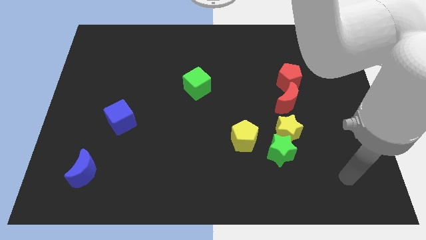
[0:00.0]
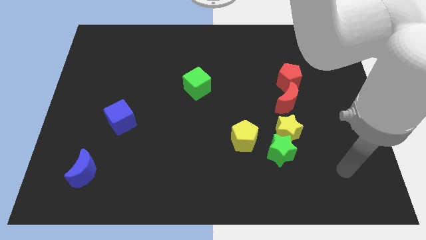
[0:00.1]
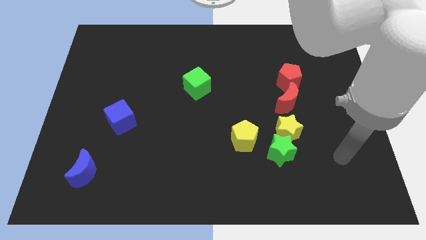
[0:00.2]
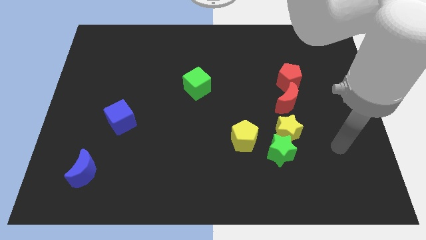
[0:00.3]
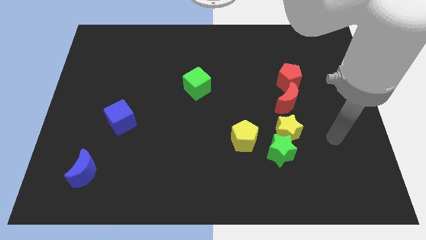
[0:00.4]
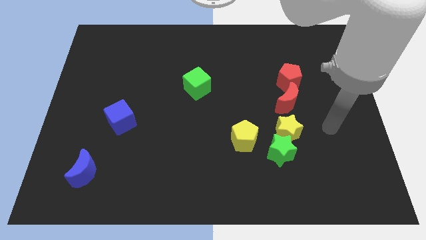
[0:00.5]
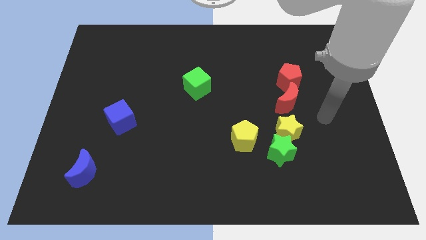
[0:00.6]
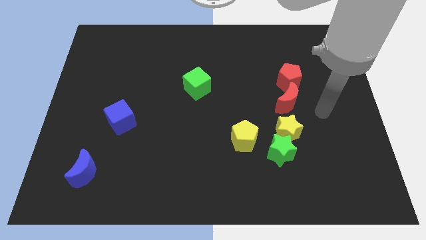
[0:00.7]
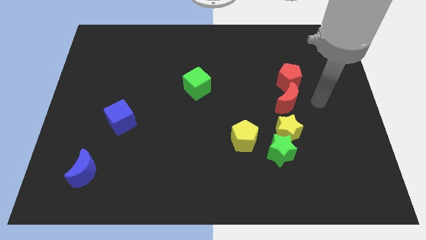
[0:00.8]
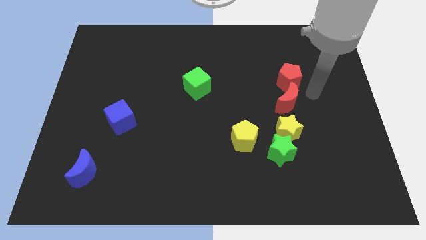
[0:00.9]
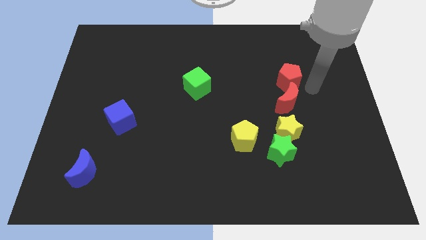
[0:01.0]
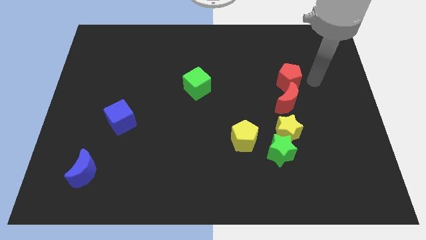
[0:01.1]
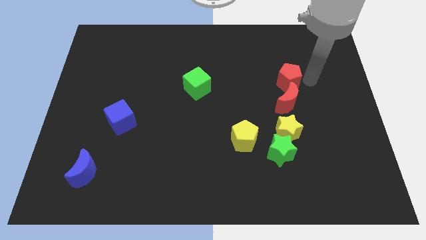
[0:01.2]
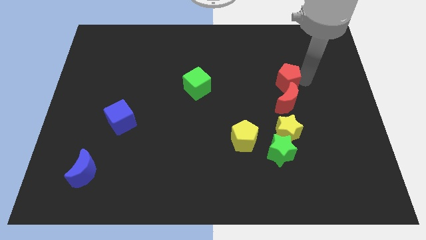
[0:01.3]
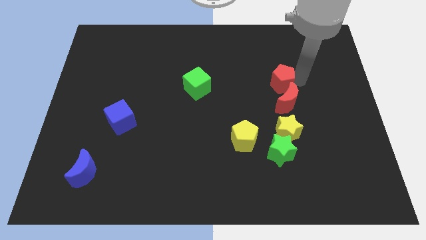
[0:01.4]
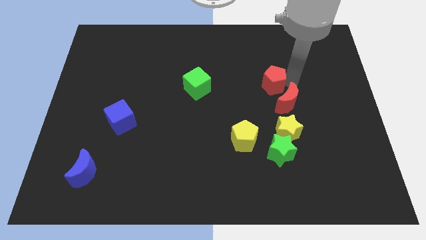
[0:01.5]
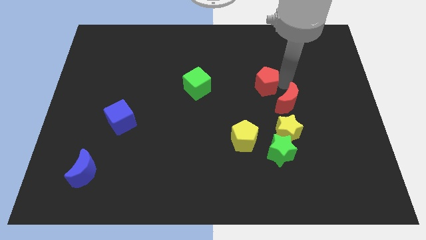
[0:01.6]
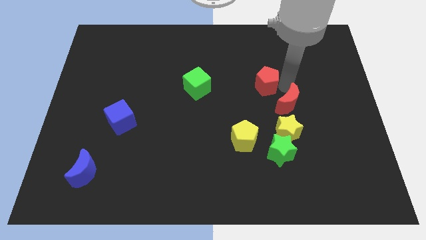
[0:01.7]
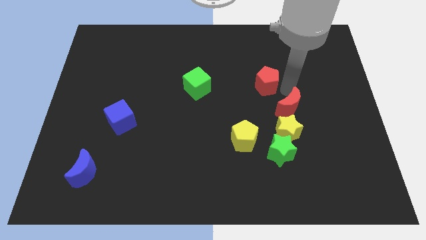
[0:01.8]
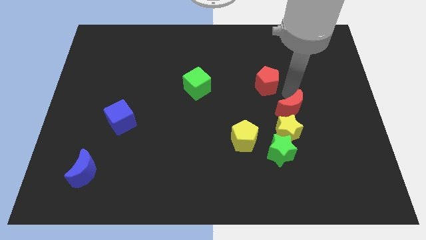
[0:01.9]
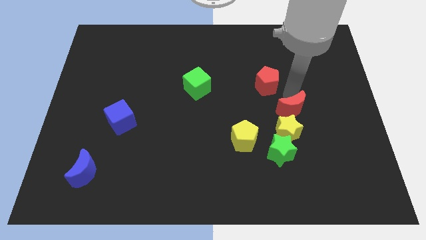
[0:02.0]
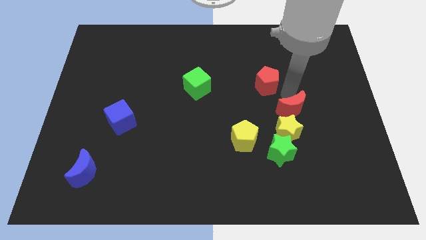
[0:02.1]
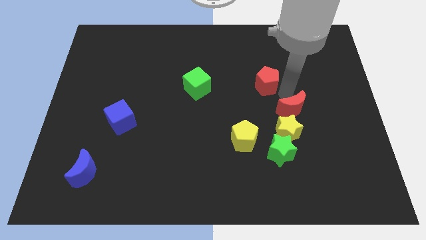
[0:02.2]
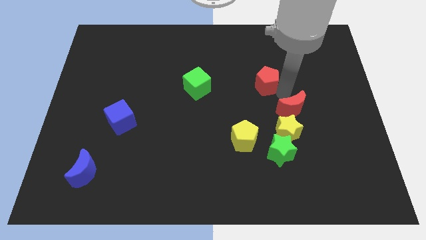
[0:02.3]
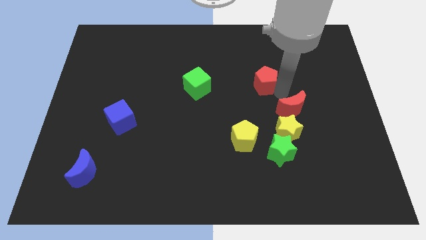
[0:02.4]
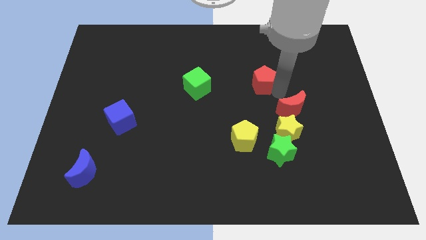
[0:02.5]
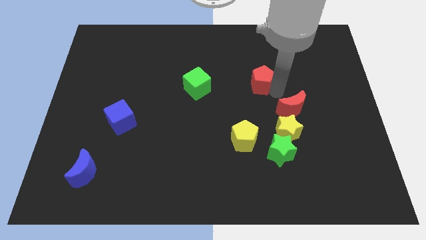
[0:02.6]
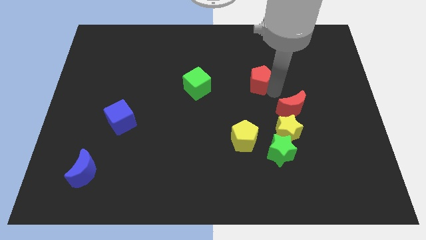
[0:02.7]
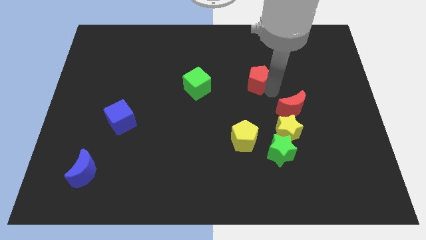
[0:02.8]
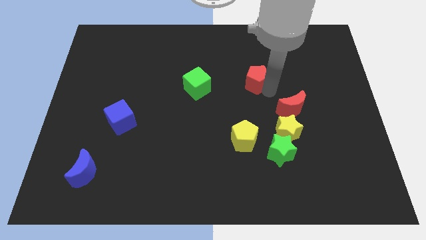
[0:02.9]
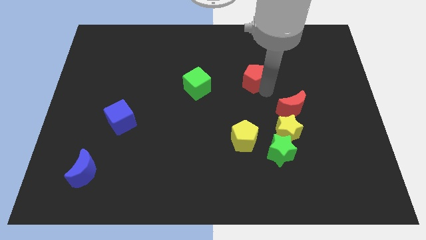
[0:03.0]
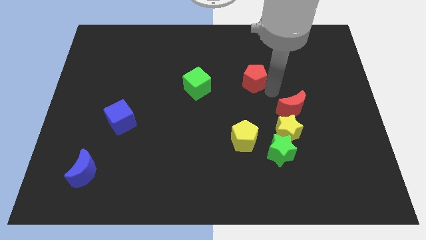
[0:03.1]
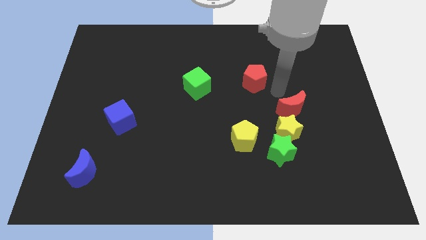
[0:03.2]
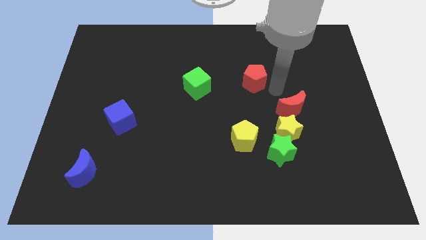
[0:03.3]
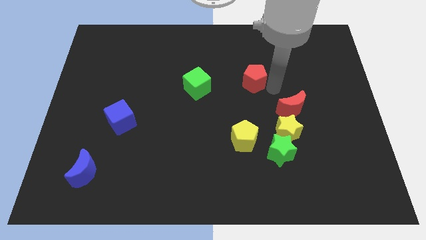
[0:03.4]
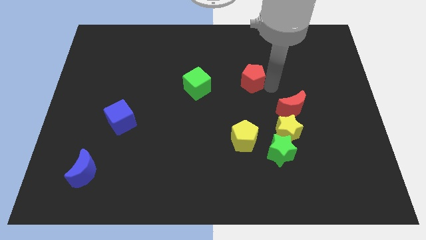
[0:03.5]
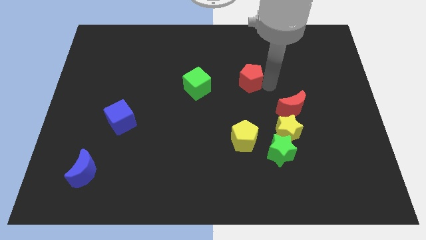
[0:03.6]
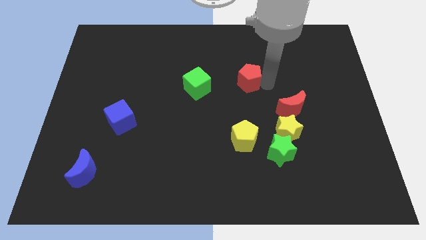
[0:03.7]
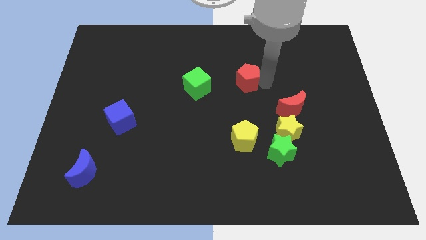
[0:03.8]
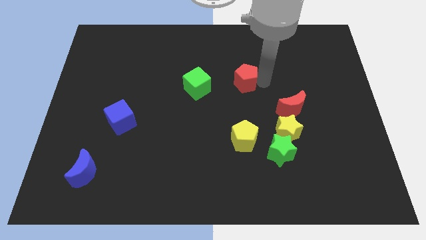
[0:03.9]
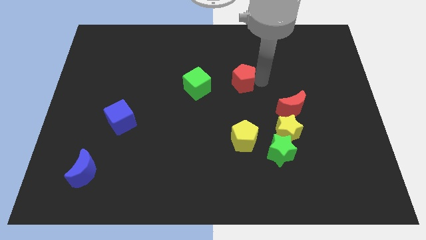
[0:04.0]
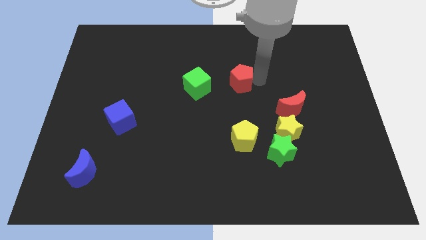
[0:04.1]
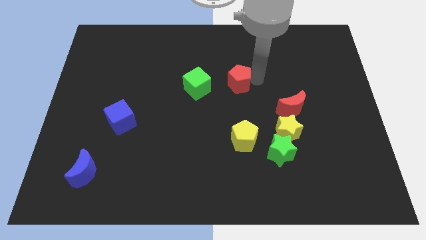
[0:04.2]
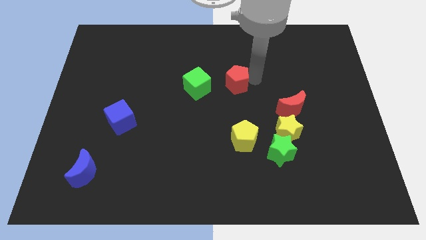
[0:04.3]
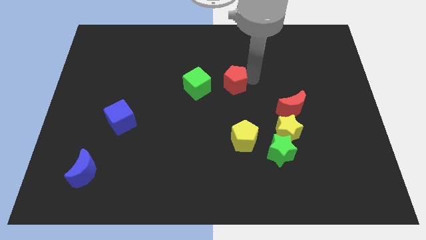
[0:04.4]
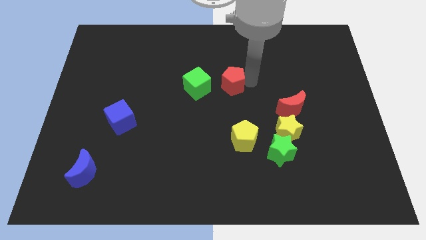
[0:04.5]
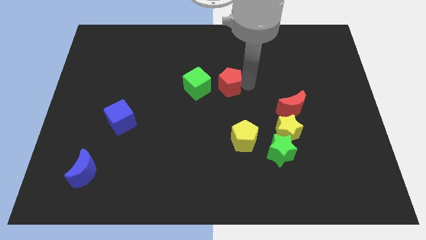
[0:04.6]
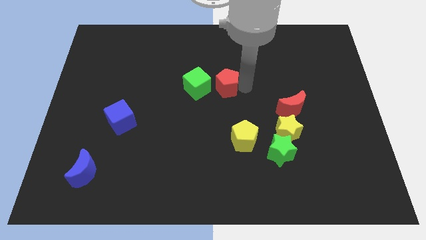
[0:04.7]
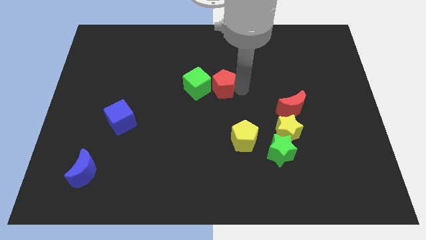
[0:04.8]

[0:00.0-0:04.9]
move the red pentagon to the top right of the green cube

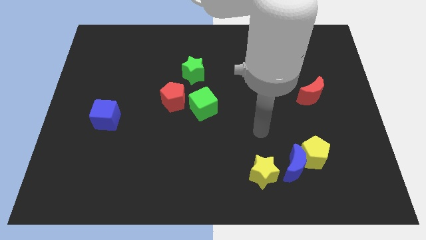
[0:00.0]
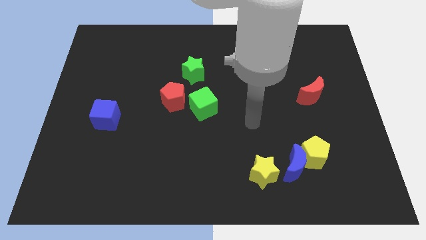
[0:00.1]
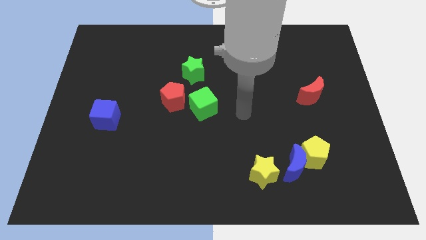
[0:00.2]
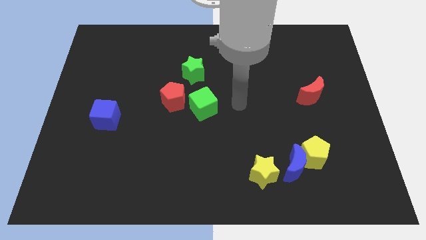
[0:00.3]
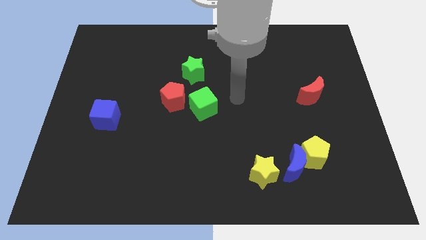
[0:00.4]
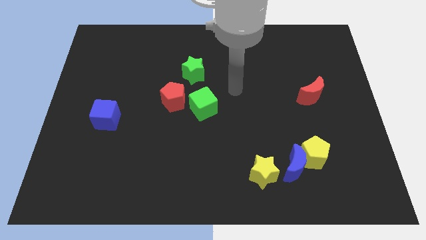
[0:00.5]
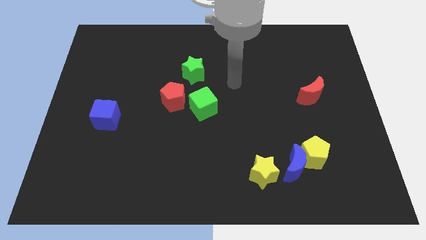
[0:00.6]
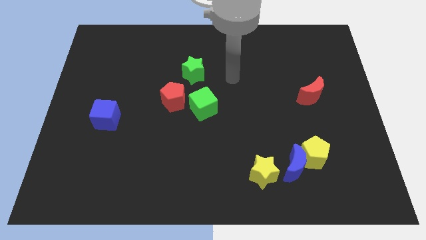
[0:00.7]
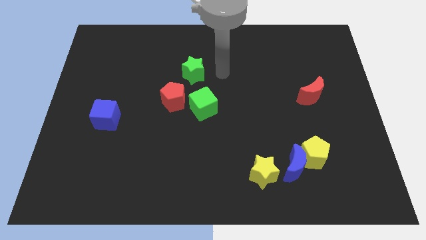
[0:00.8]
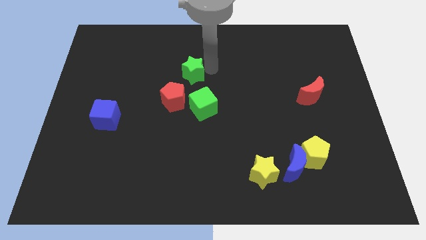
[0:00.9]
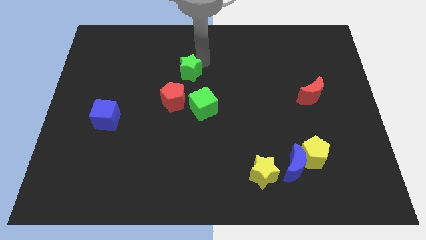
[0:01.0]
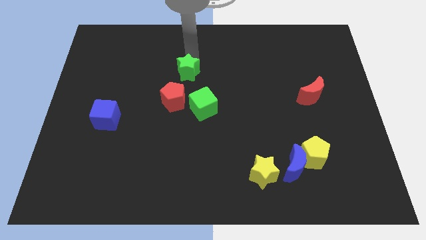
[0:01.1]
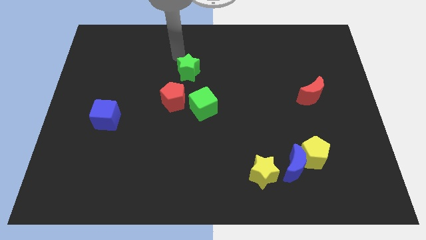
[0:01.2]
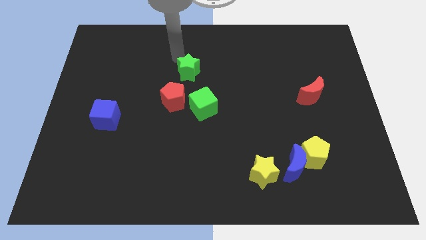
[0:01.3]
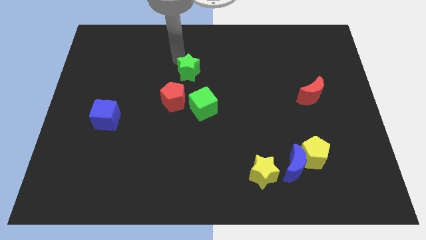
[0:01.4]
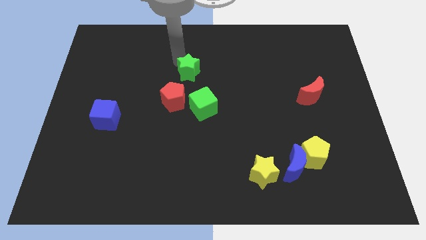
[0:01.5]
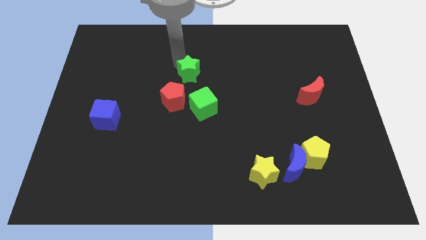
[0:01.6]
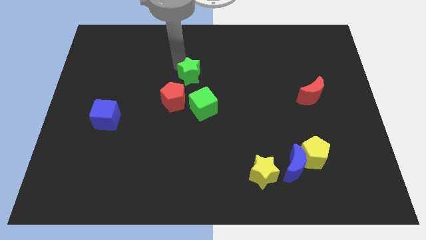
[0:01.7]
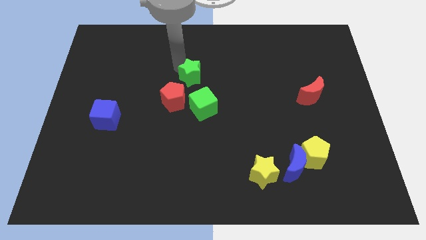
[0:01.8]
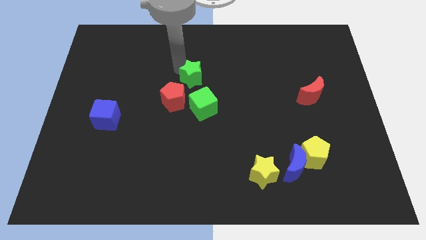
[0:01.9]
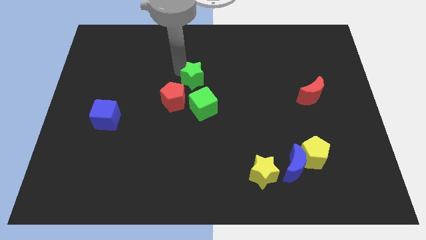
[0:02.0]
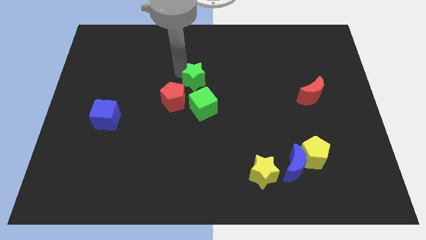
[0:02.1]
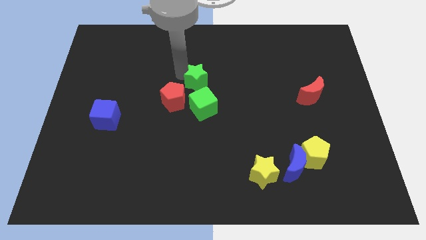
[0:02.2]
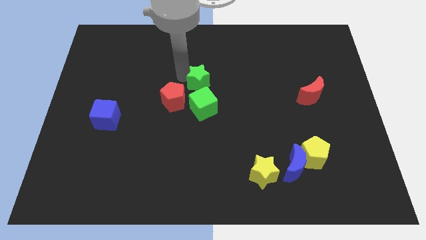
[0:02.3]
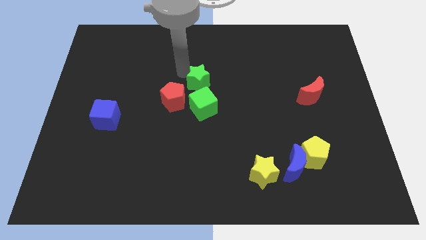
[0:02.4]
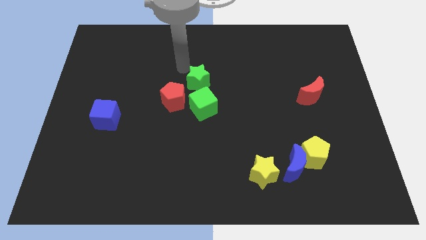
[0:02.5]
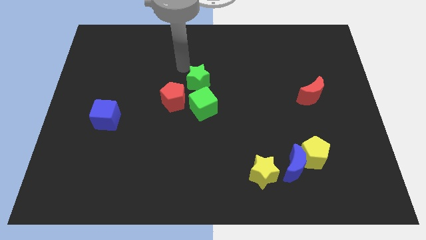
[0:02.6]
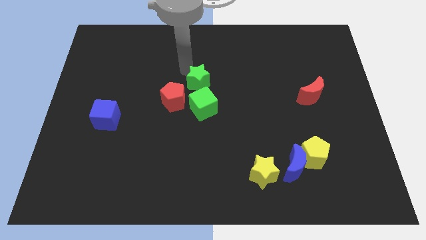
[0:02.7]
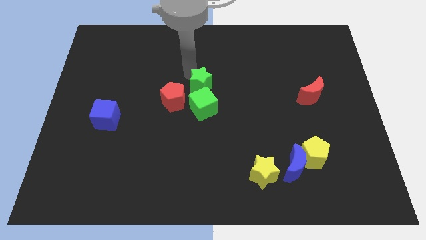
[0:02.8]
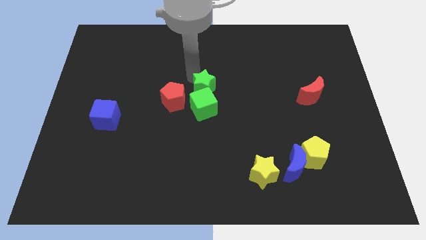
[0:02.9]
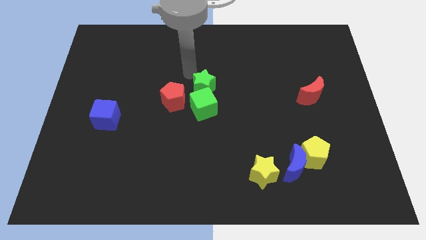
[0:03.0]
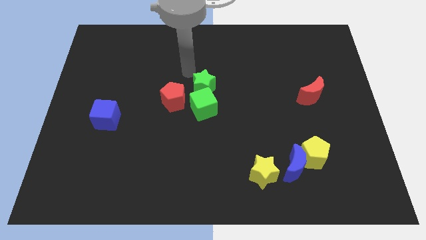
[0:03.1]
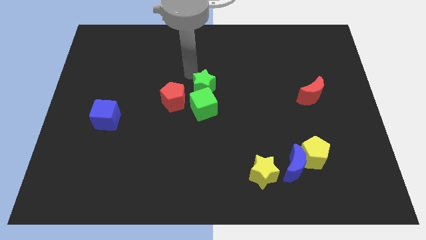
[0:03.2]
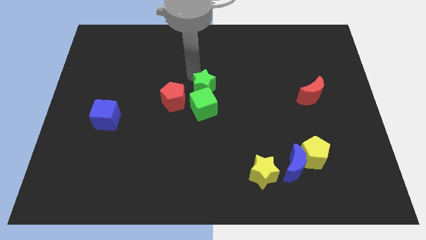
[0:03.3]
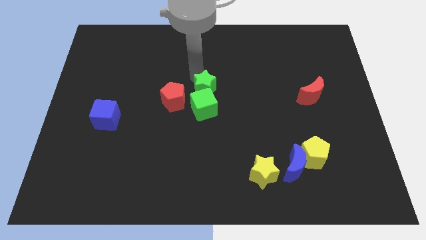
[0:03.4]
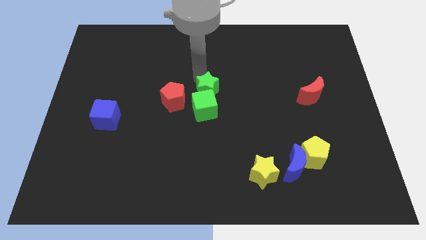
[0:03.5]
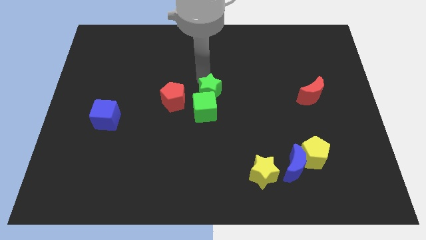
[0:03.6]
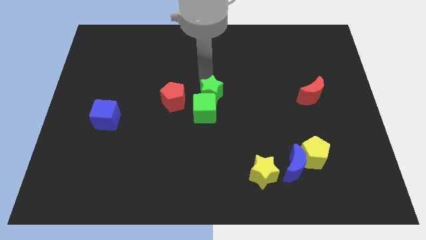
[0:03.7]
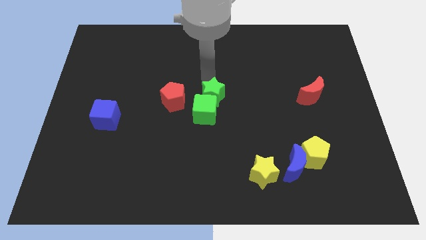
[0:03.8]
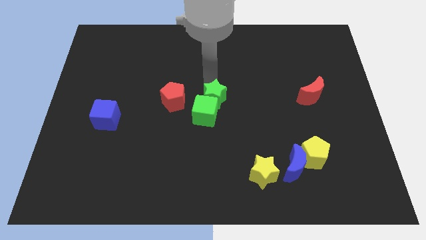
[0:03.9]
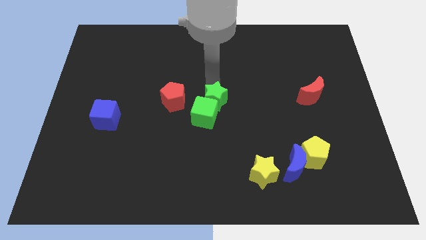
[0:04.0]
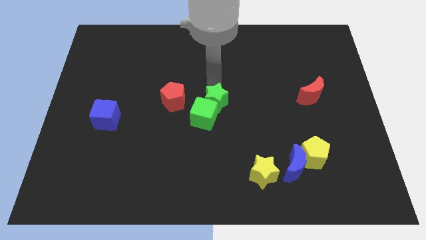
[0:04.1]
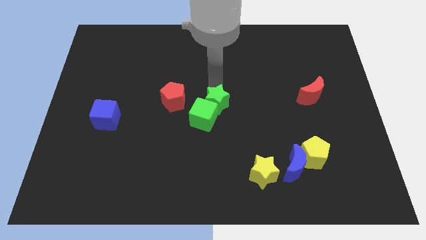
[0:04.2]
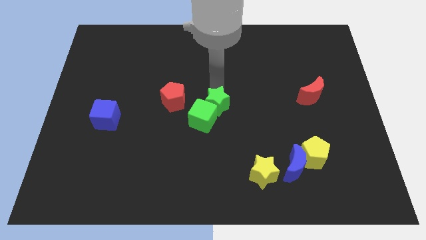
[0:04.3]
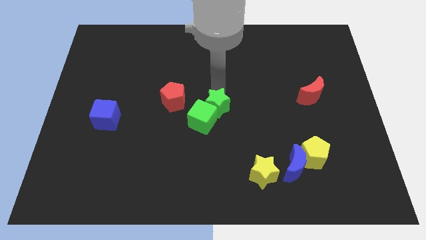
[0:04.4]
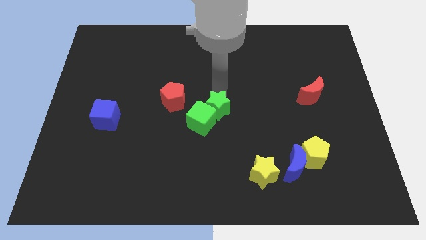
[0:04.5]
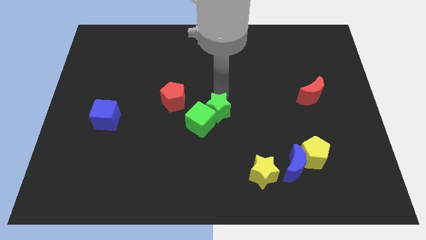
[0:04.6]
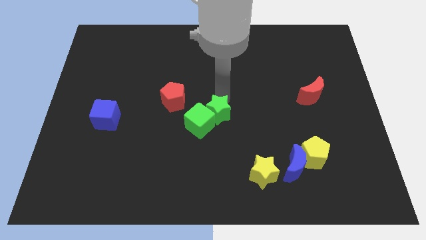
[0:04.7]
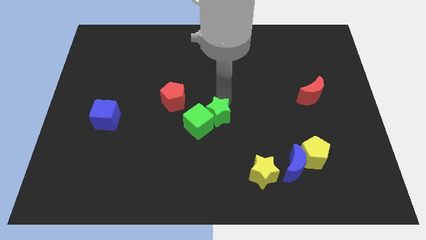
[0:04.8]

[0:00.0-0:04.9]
move the green star to the bottom right side of the red pentagon
